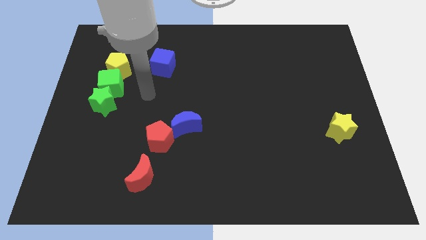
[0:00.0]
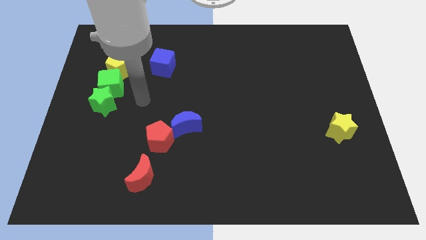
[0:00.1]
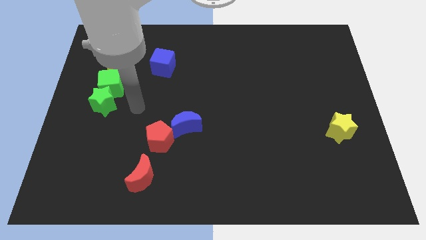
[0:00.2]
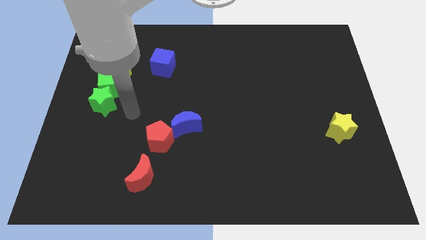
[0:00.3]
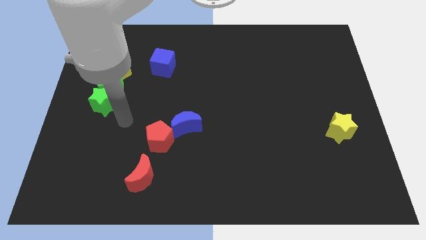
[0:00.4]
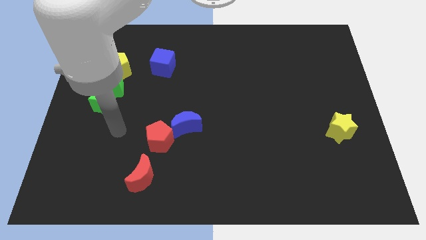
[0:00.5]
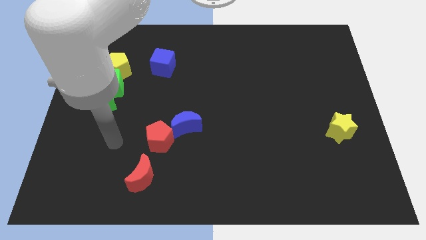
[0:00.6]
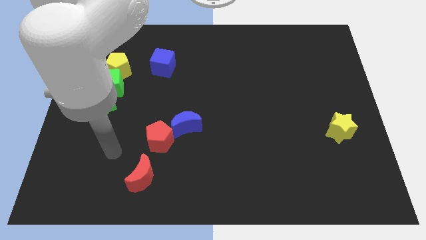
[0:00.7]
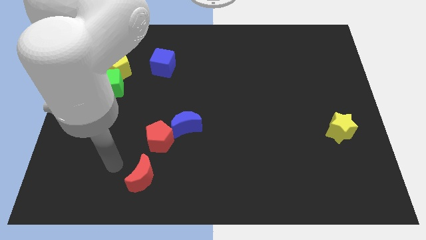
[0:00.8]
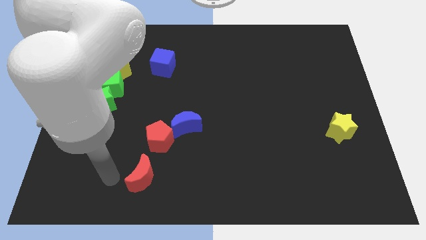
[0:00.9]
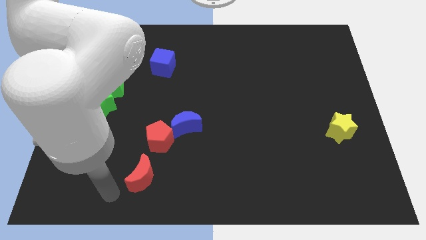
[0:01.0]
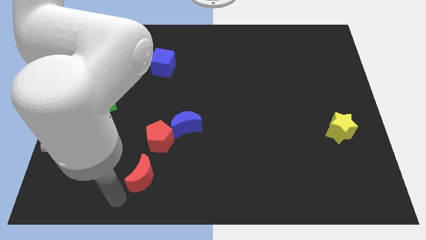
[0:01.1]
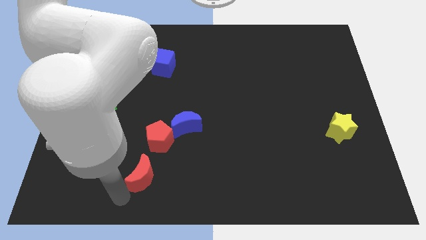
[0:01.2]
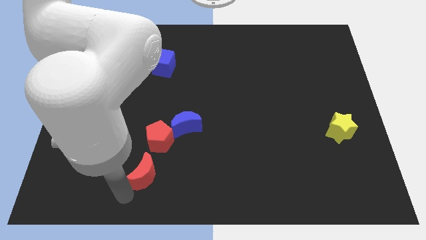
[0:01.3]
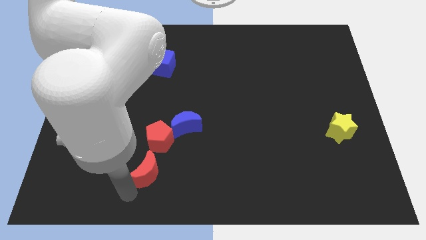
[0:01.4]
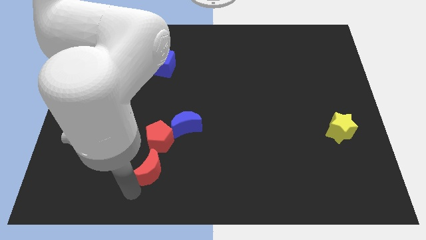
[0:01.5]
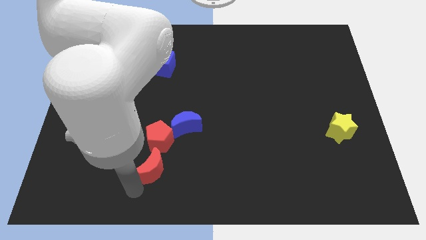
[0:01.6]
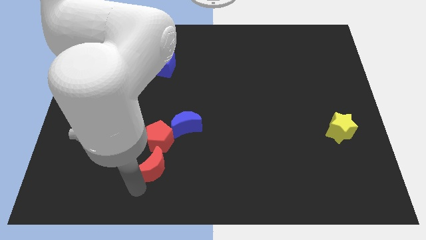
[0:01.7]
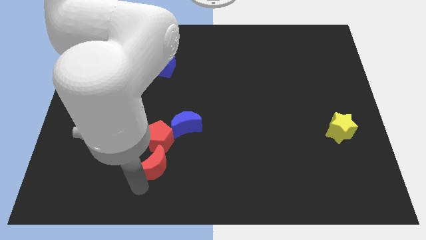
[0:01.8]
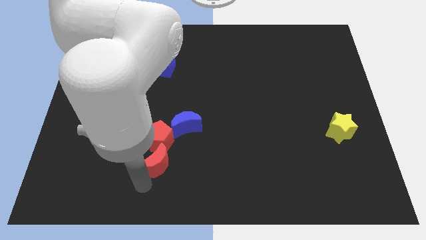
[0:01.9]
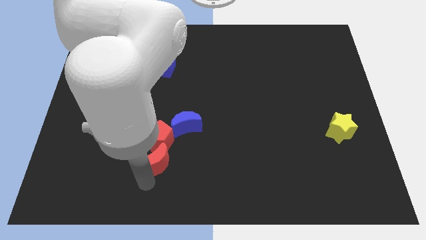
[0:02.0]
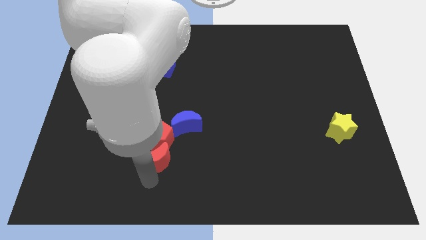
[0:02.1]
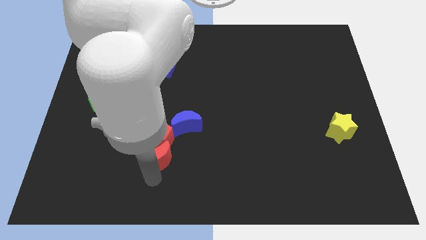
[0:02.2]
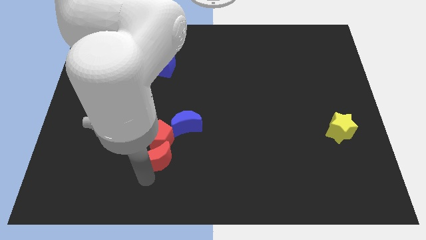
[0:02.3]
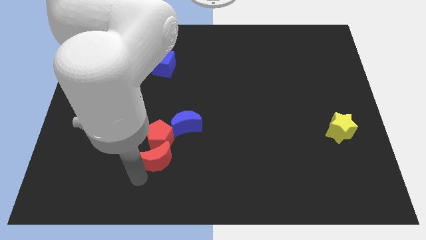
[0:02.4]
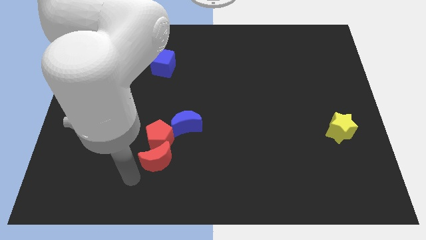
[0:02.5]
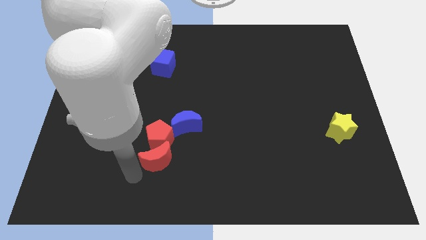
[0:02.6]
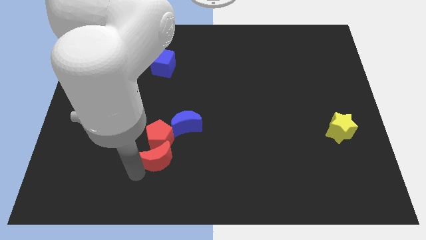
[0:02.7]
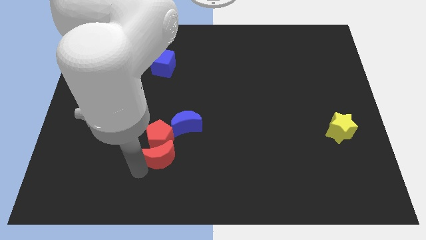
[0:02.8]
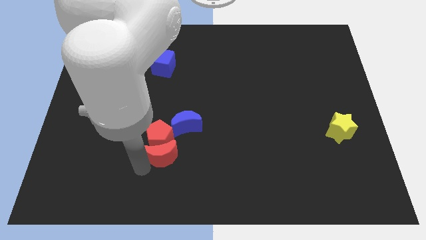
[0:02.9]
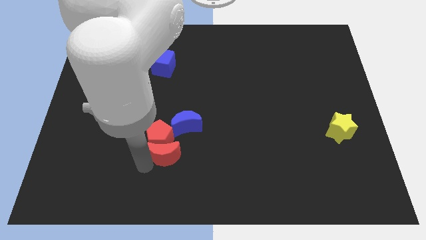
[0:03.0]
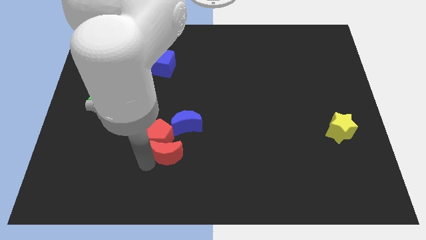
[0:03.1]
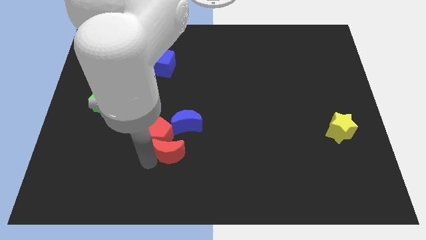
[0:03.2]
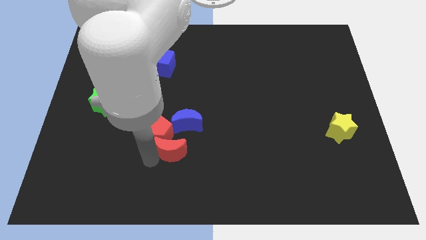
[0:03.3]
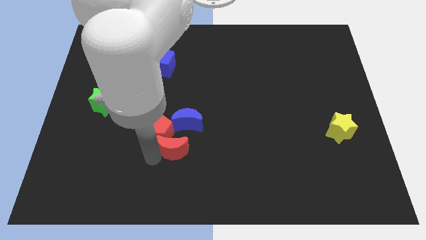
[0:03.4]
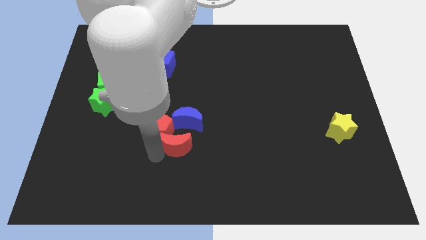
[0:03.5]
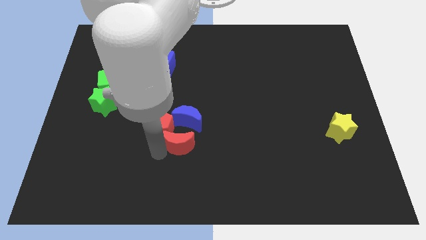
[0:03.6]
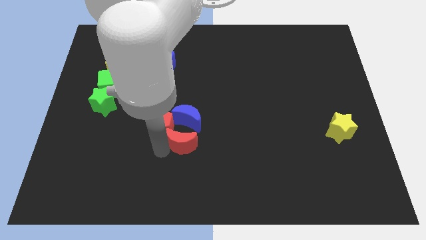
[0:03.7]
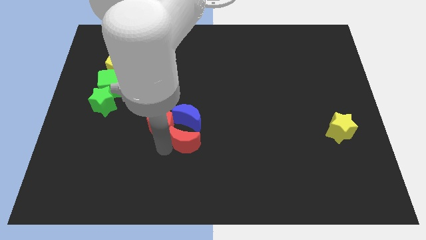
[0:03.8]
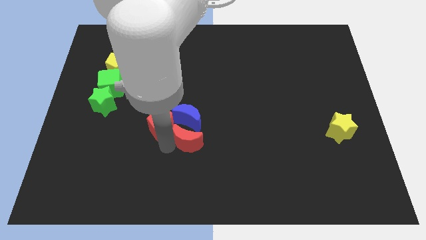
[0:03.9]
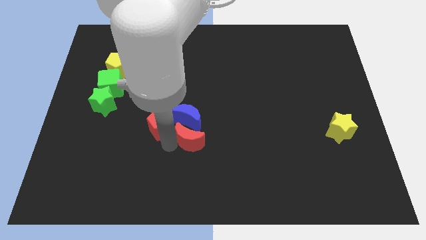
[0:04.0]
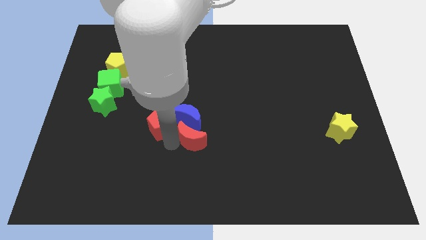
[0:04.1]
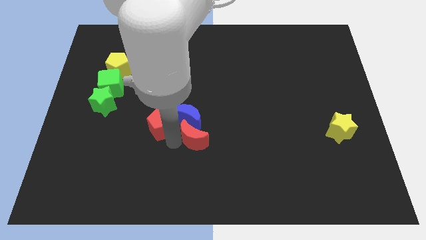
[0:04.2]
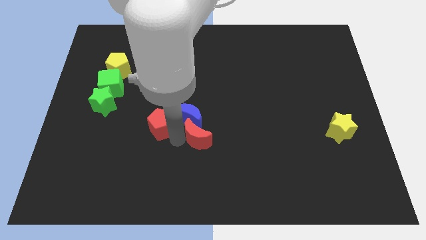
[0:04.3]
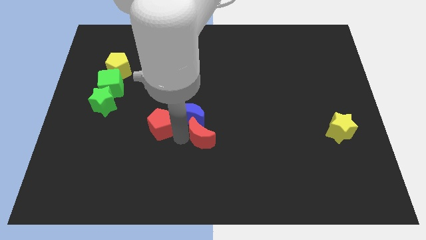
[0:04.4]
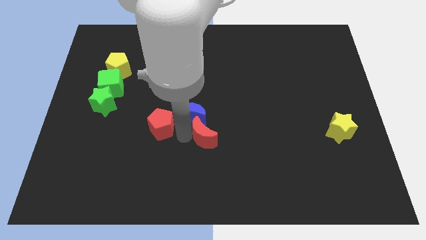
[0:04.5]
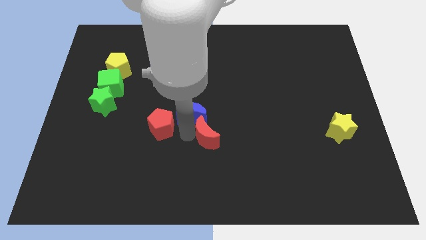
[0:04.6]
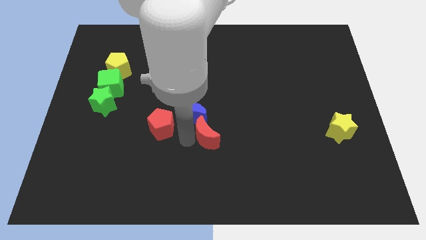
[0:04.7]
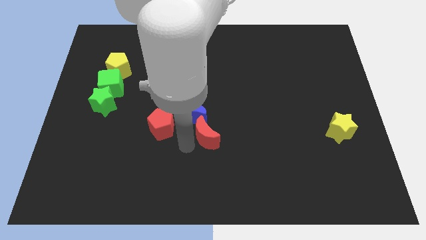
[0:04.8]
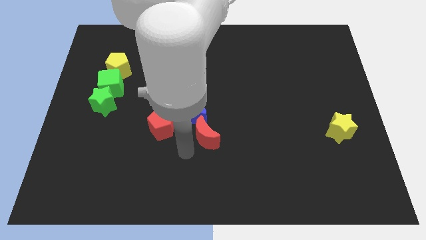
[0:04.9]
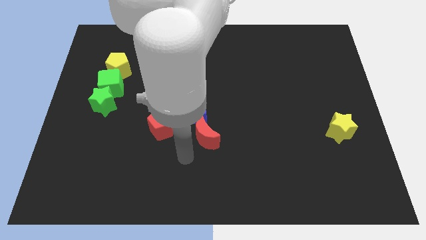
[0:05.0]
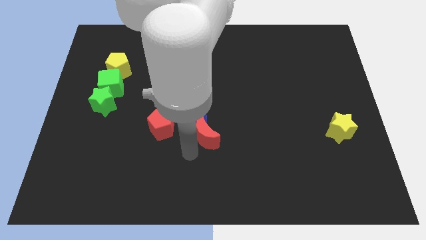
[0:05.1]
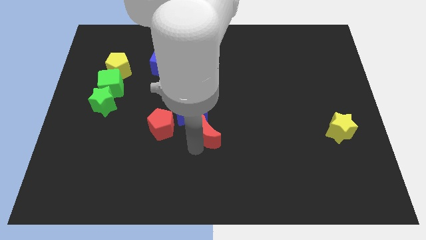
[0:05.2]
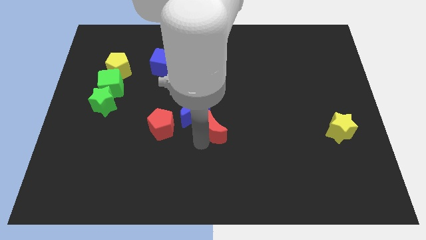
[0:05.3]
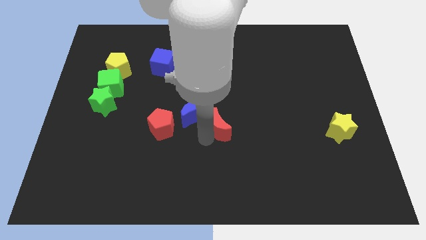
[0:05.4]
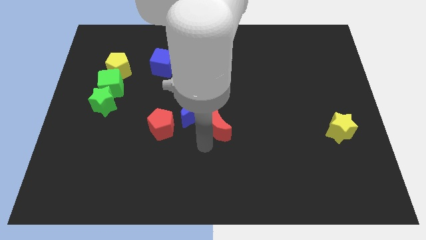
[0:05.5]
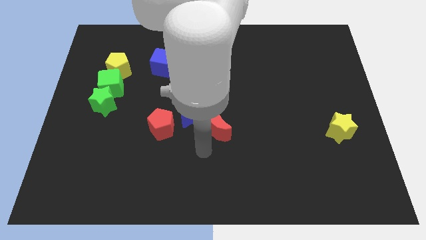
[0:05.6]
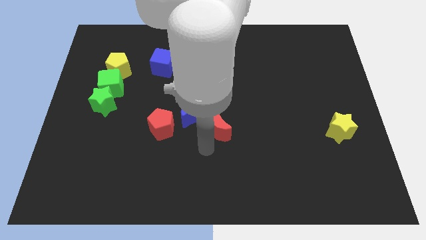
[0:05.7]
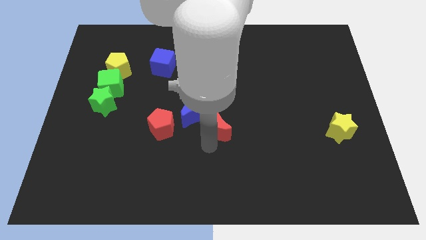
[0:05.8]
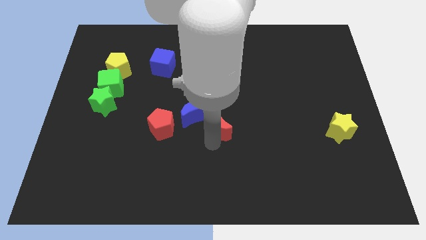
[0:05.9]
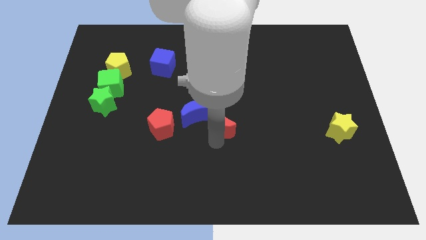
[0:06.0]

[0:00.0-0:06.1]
move the red moon up and to the right diagonally

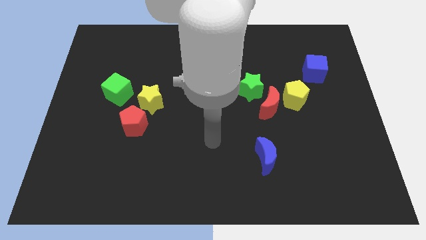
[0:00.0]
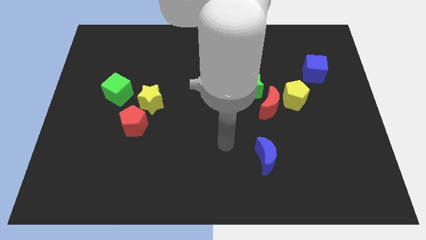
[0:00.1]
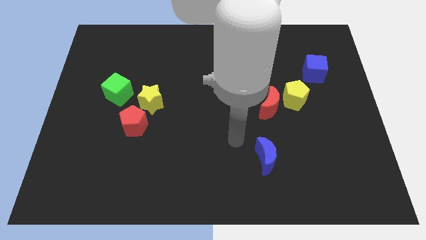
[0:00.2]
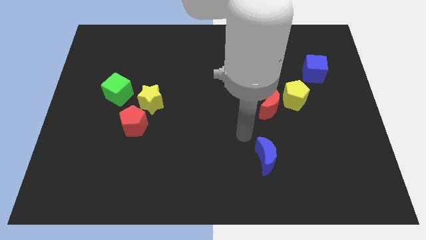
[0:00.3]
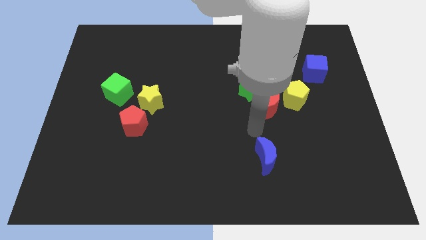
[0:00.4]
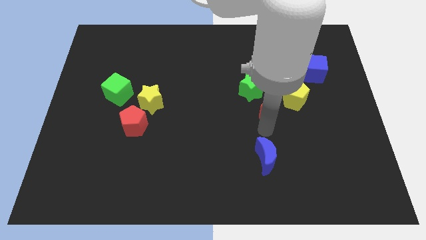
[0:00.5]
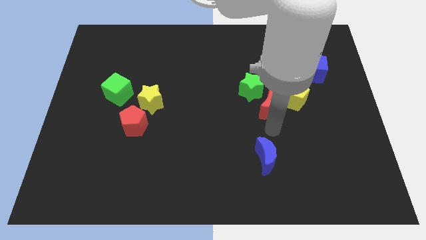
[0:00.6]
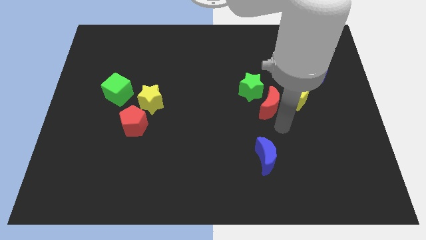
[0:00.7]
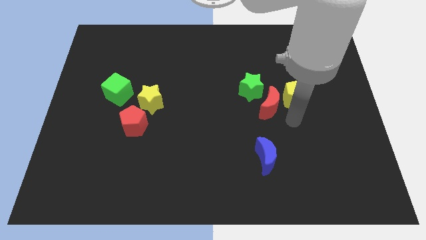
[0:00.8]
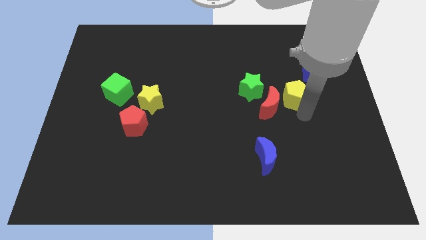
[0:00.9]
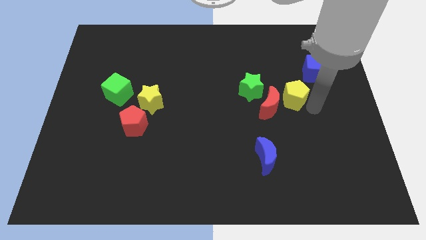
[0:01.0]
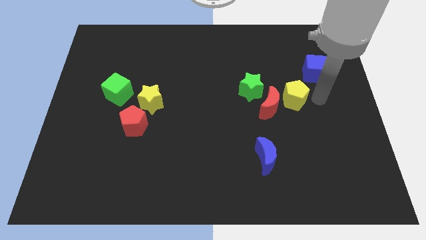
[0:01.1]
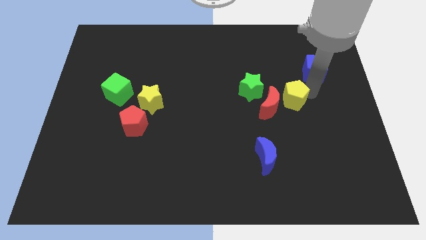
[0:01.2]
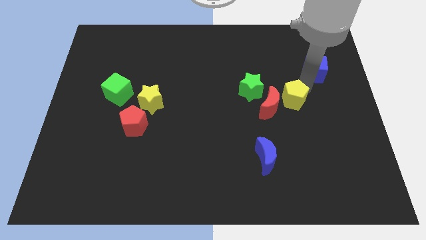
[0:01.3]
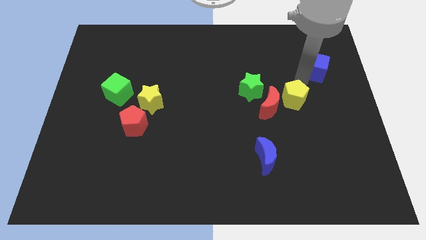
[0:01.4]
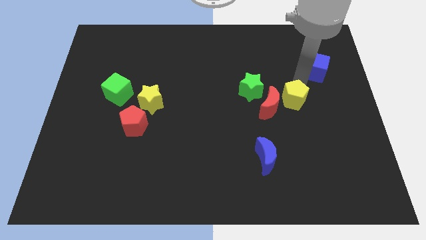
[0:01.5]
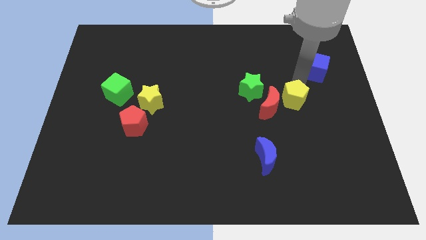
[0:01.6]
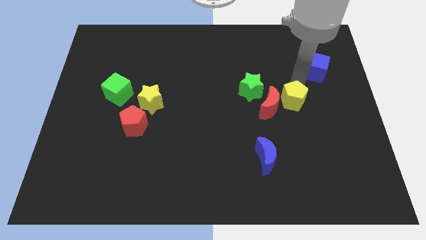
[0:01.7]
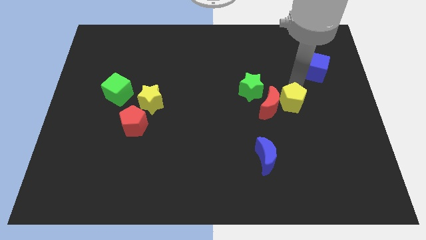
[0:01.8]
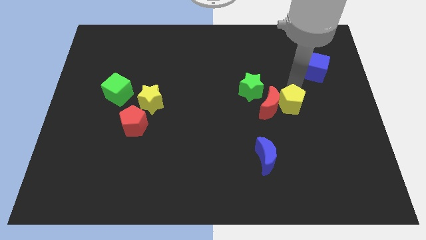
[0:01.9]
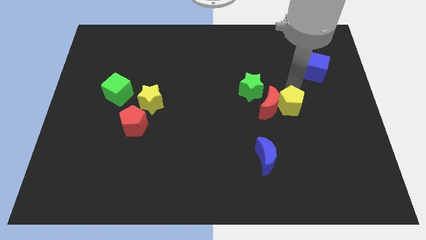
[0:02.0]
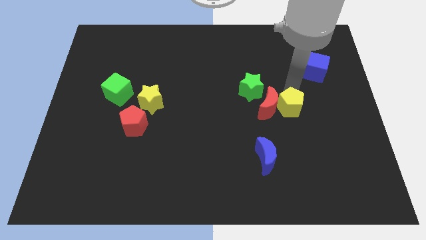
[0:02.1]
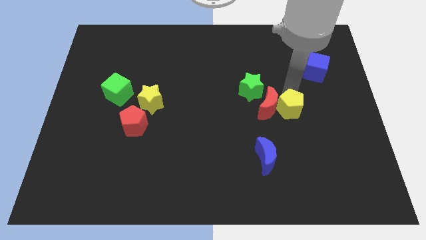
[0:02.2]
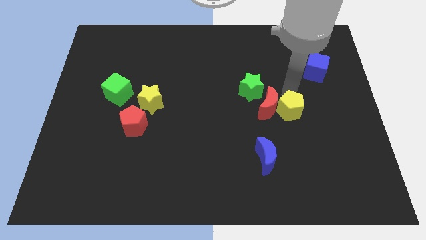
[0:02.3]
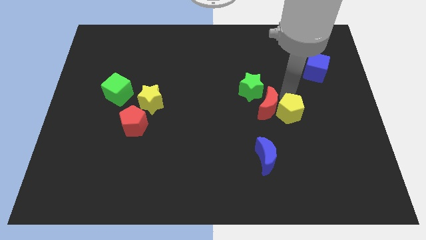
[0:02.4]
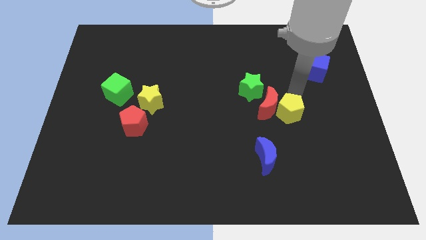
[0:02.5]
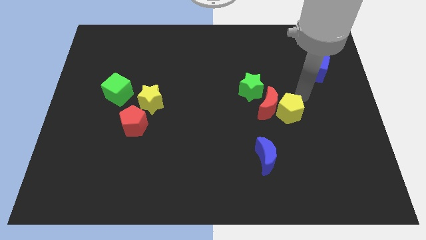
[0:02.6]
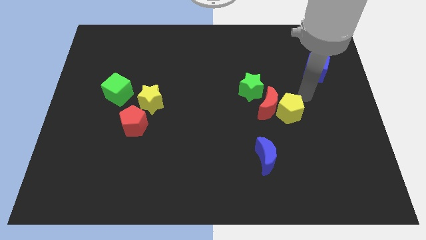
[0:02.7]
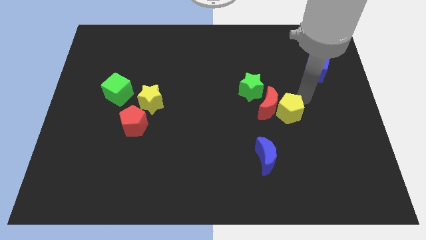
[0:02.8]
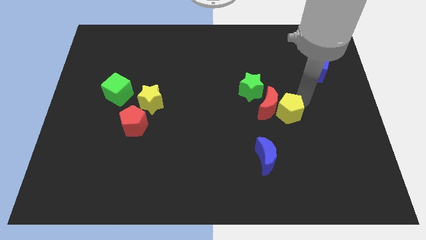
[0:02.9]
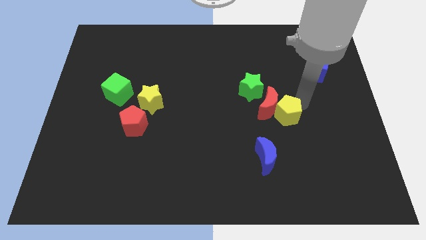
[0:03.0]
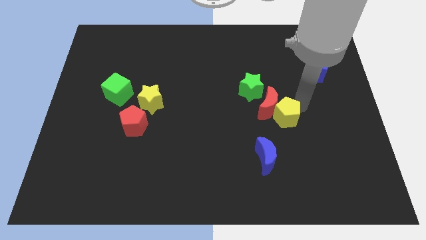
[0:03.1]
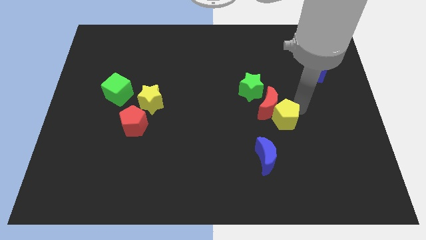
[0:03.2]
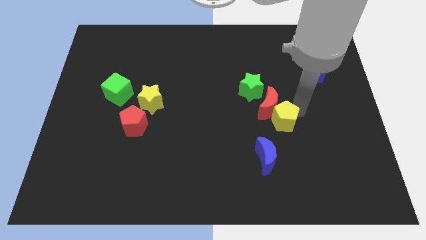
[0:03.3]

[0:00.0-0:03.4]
push the yellow pentagon slightly downwards and left
